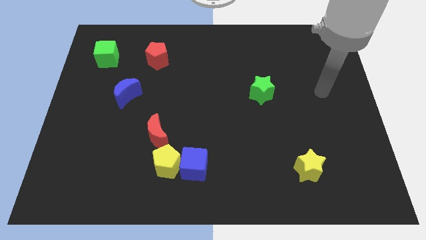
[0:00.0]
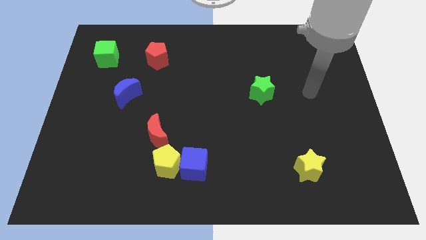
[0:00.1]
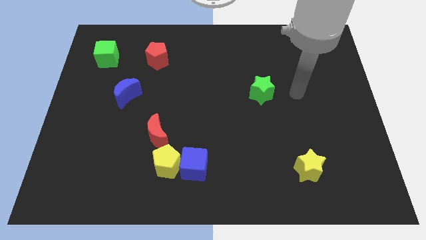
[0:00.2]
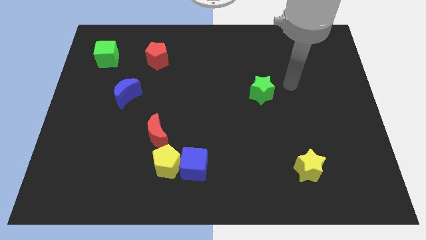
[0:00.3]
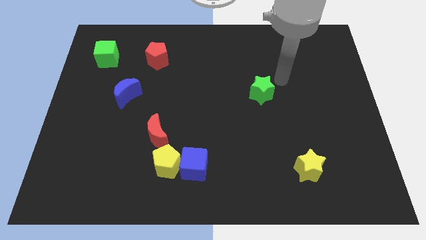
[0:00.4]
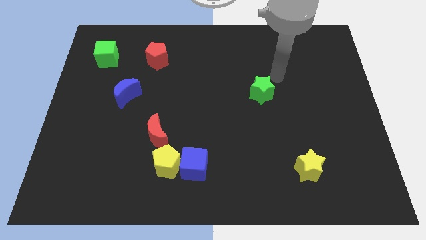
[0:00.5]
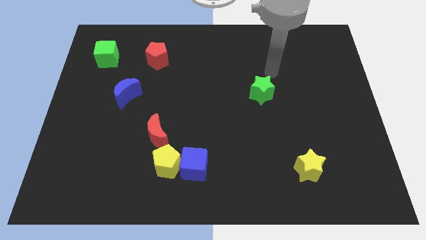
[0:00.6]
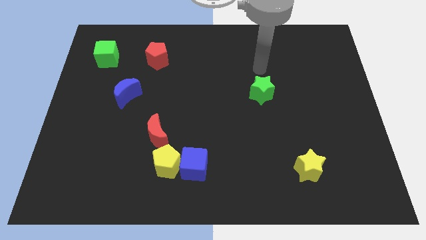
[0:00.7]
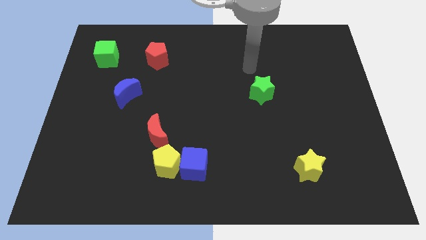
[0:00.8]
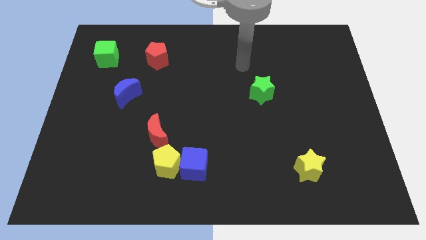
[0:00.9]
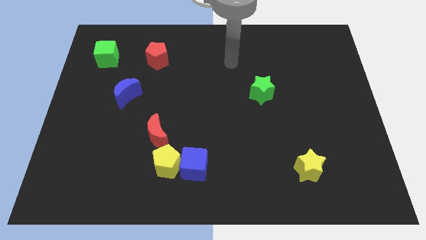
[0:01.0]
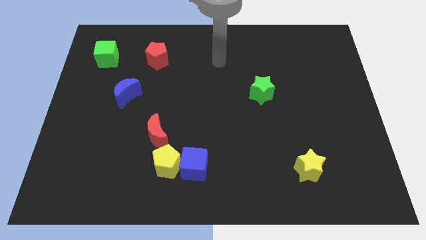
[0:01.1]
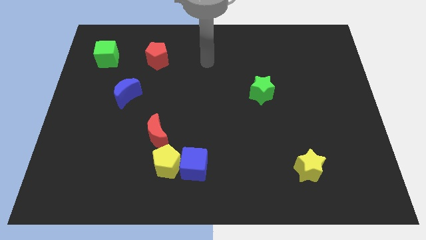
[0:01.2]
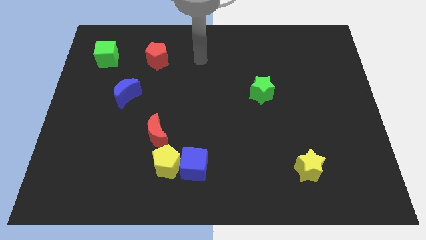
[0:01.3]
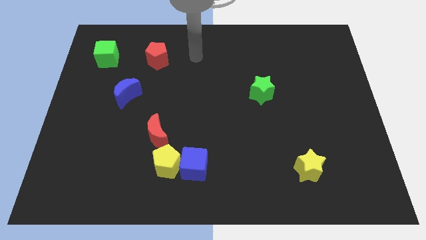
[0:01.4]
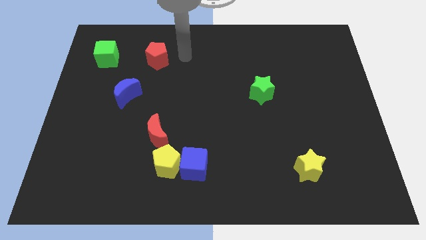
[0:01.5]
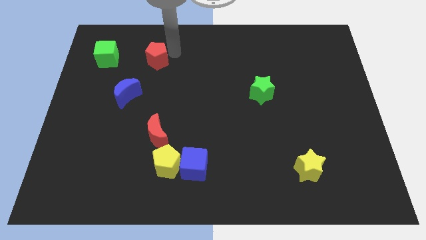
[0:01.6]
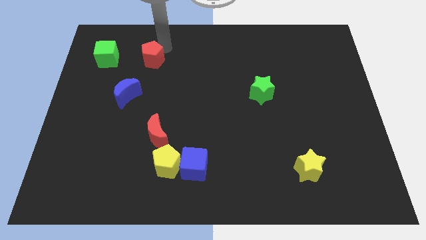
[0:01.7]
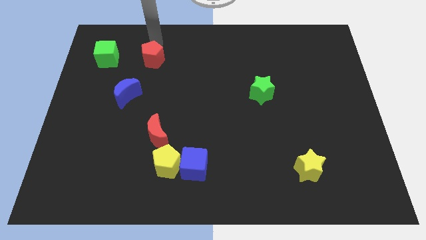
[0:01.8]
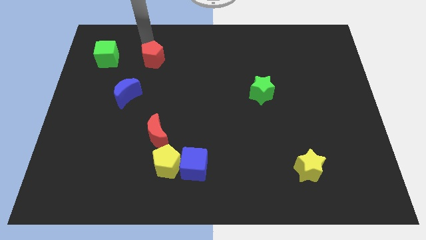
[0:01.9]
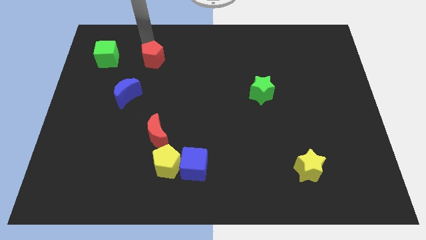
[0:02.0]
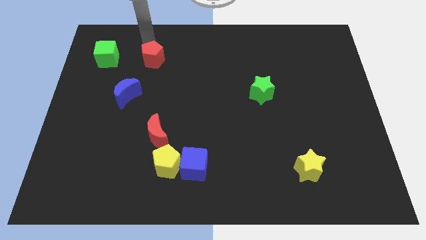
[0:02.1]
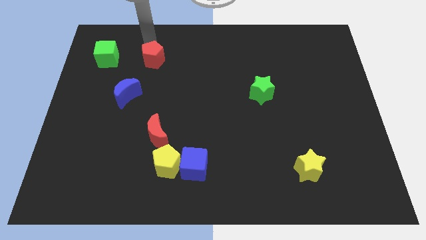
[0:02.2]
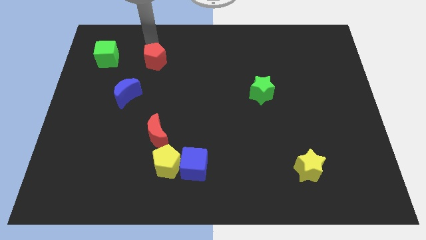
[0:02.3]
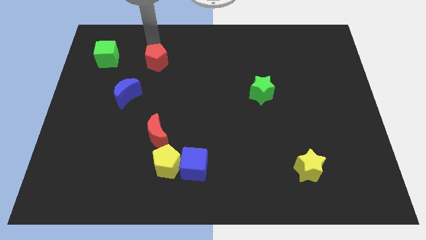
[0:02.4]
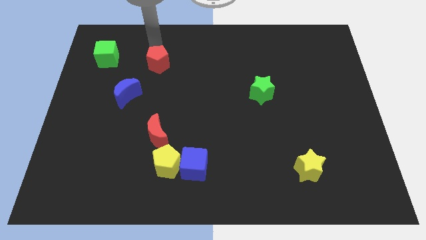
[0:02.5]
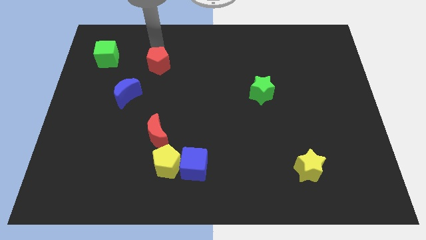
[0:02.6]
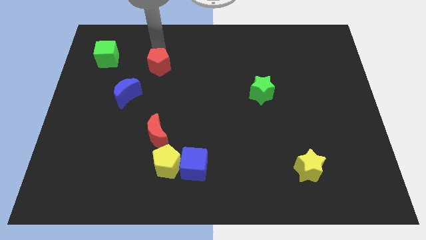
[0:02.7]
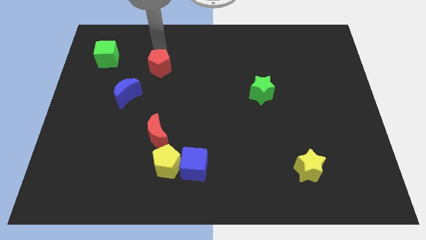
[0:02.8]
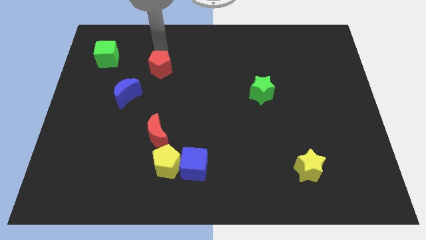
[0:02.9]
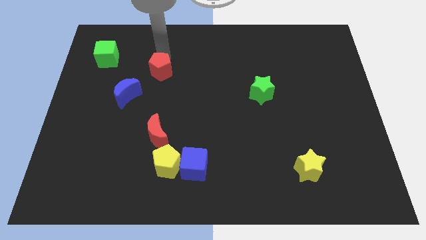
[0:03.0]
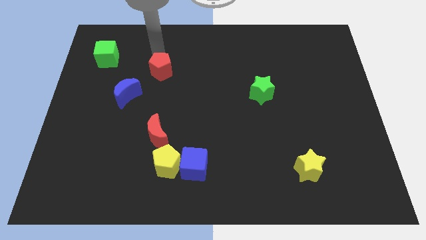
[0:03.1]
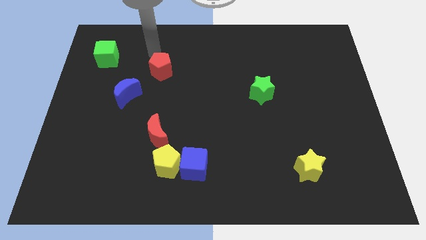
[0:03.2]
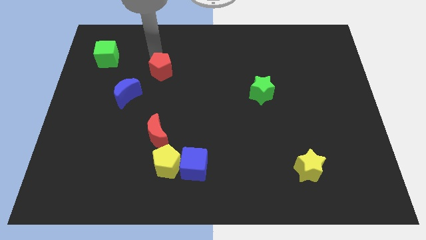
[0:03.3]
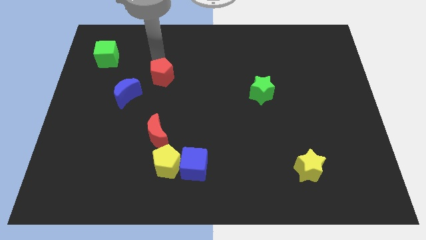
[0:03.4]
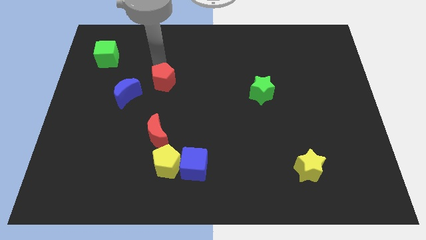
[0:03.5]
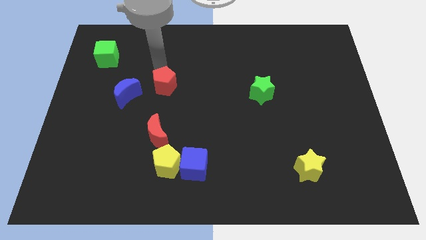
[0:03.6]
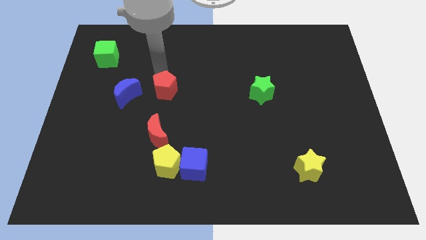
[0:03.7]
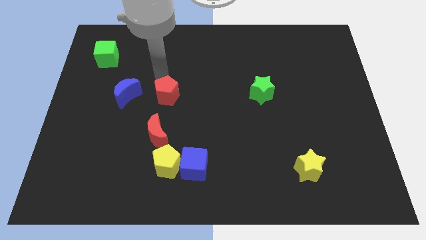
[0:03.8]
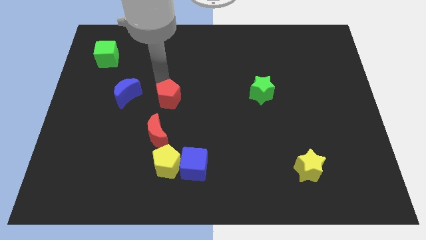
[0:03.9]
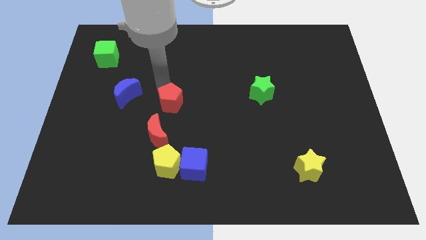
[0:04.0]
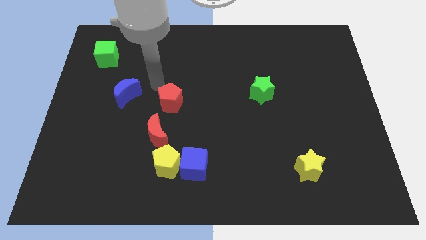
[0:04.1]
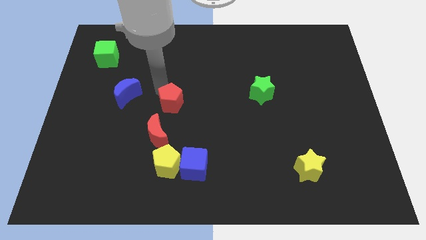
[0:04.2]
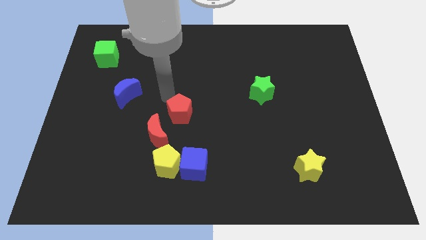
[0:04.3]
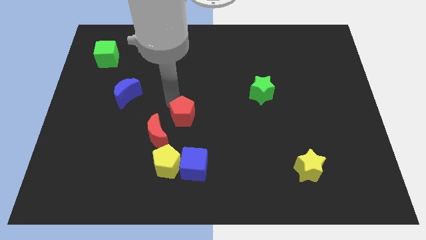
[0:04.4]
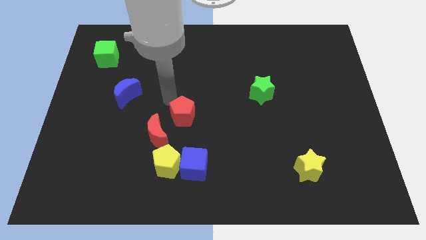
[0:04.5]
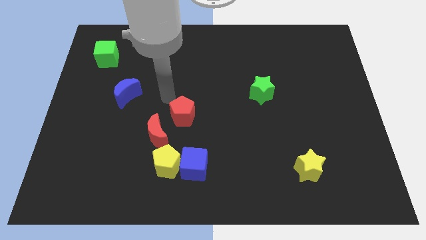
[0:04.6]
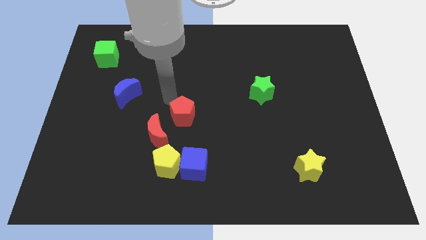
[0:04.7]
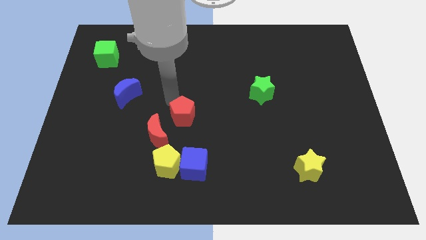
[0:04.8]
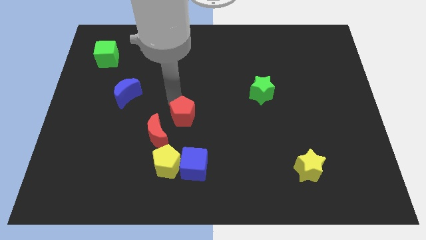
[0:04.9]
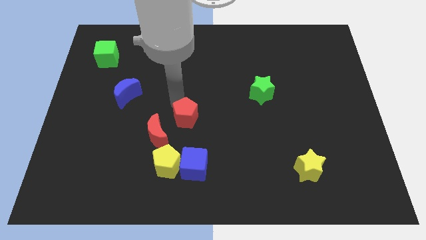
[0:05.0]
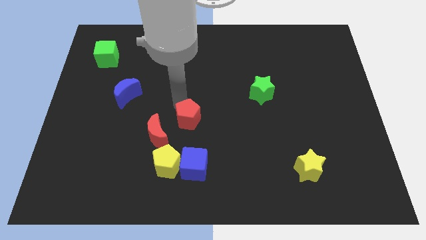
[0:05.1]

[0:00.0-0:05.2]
slide the red pentagon to the right side of the red moon

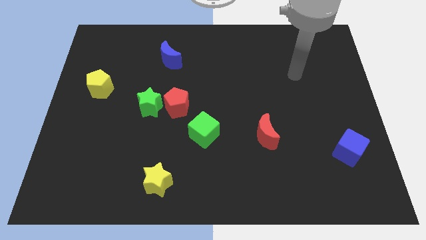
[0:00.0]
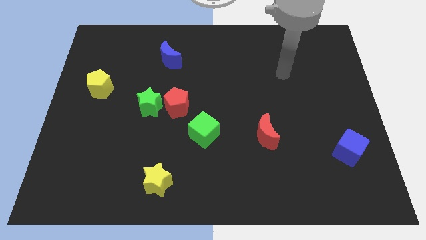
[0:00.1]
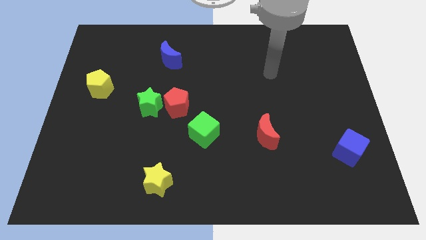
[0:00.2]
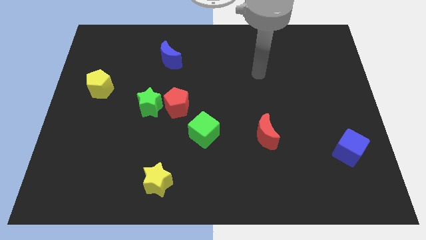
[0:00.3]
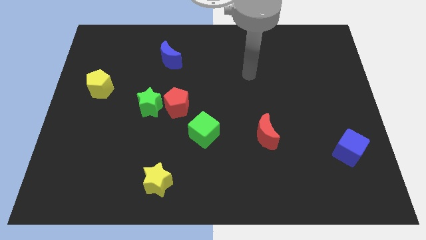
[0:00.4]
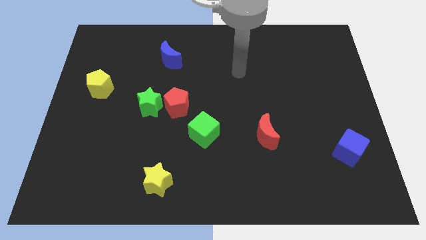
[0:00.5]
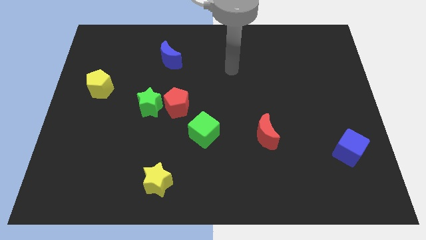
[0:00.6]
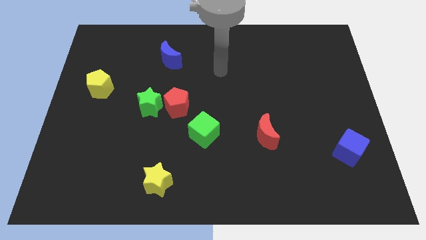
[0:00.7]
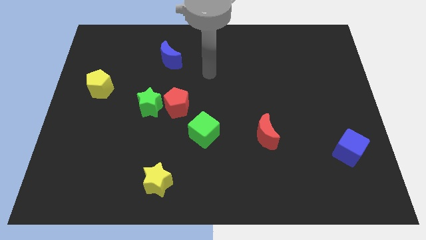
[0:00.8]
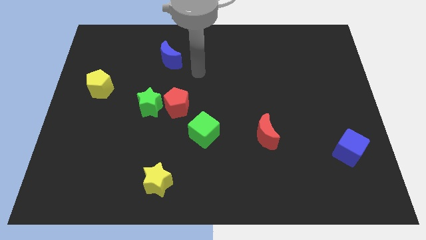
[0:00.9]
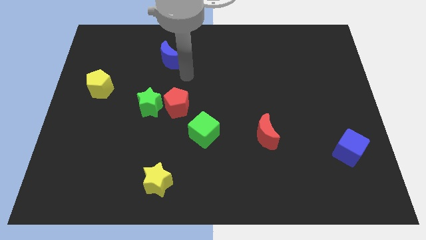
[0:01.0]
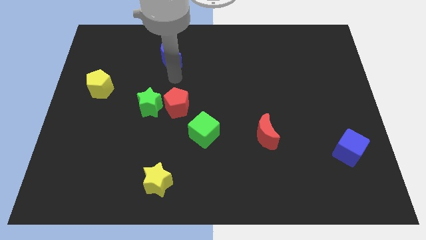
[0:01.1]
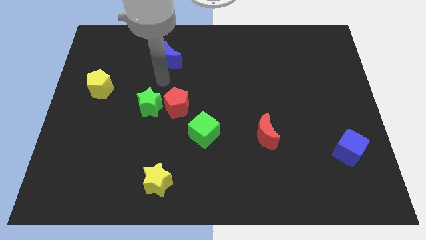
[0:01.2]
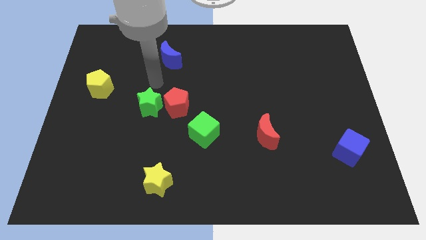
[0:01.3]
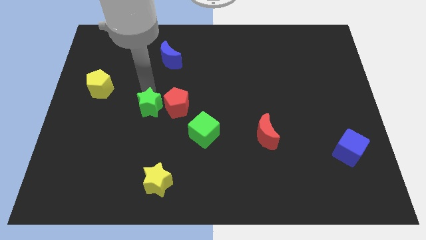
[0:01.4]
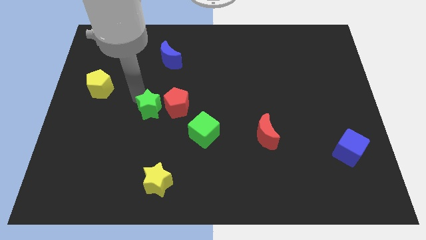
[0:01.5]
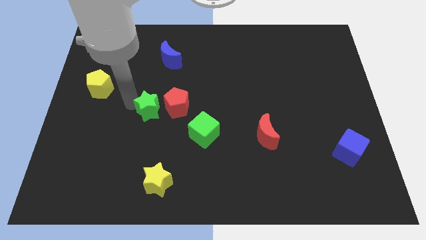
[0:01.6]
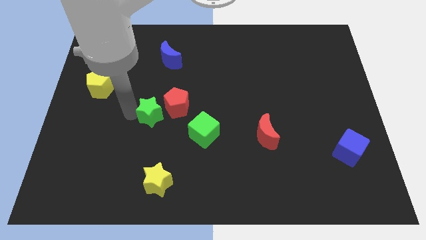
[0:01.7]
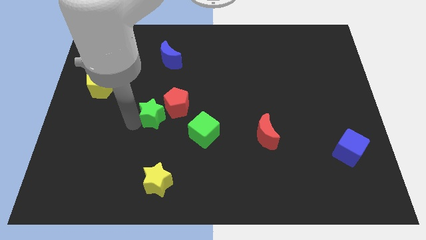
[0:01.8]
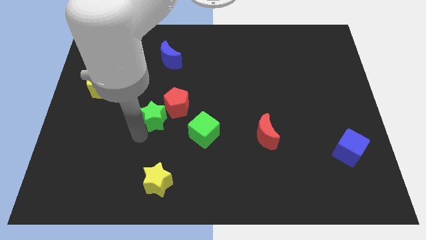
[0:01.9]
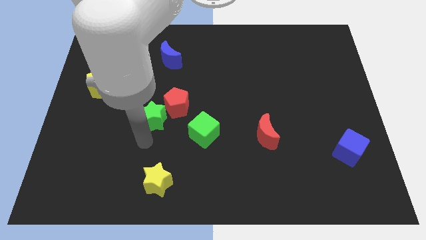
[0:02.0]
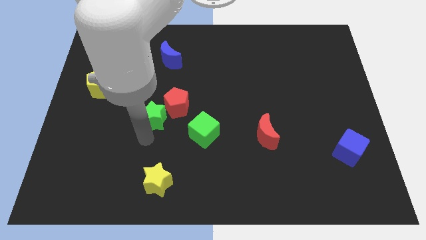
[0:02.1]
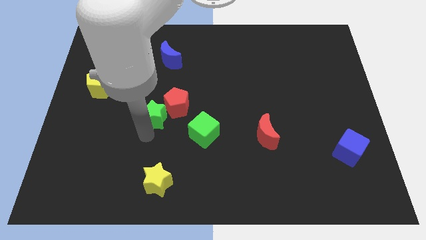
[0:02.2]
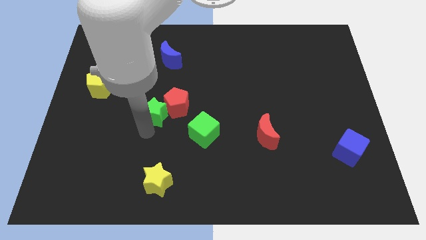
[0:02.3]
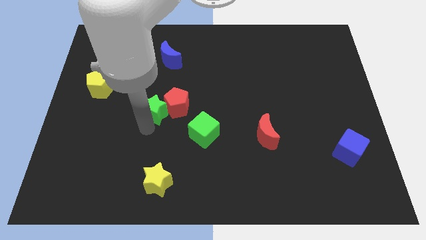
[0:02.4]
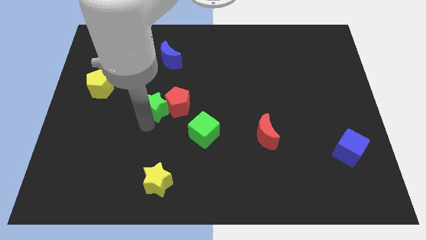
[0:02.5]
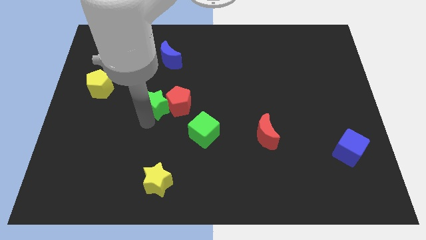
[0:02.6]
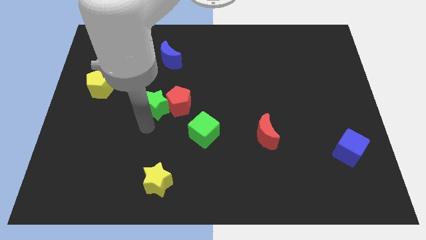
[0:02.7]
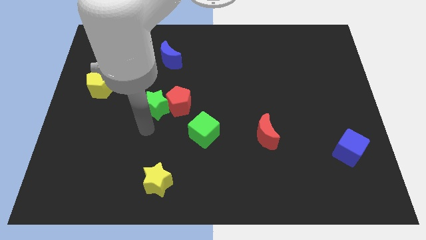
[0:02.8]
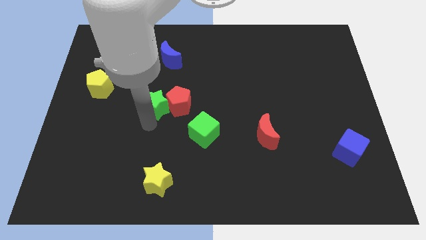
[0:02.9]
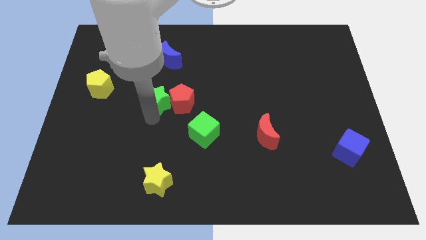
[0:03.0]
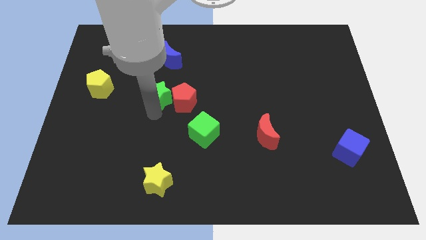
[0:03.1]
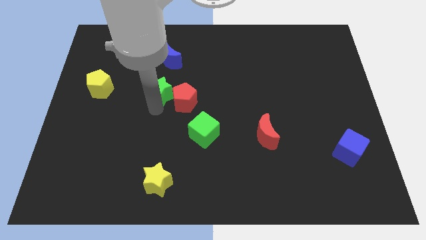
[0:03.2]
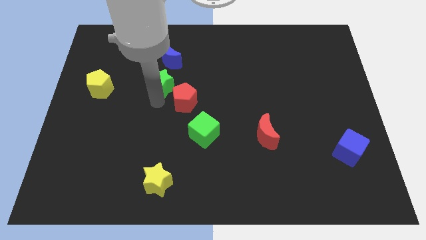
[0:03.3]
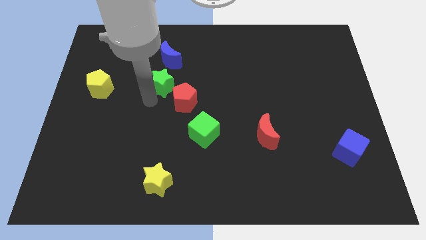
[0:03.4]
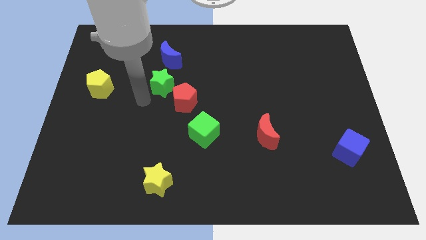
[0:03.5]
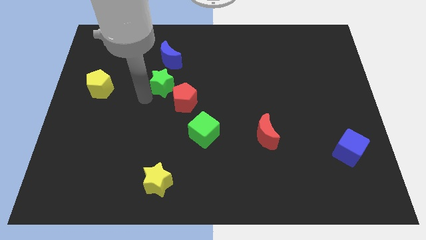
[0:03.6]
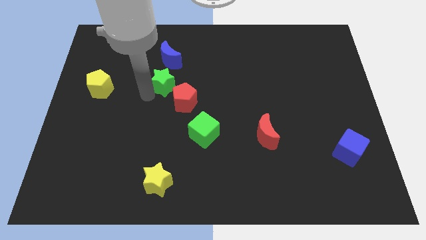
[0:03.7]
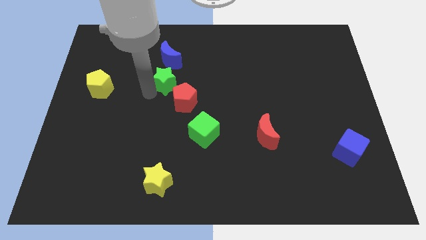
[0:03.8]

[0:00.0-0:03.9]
slide the green star above the red pentagon
